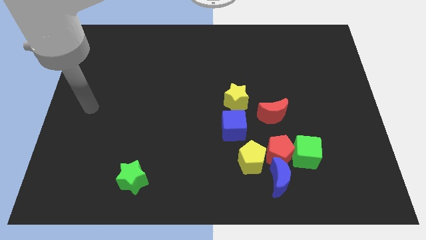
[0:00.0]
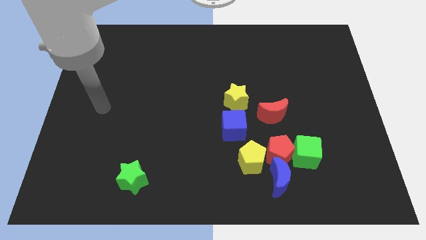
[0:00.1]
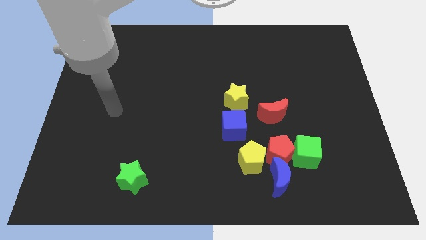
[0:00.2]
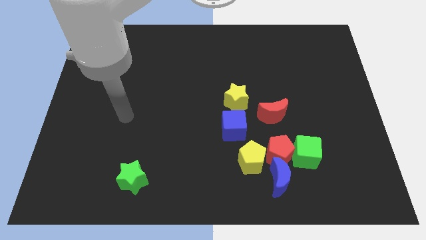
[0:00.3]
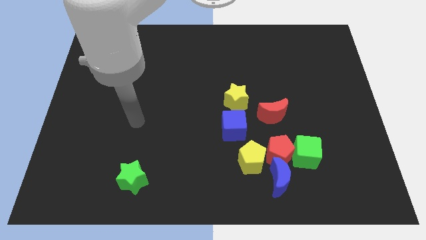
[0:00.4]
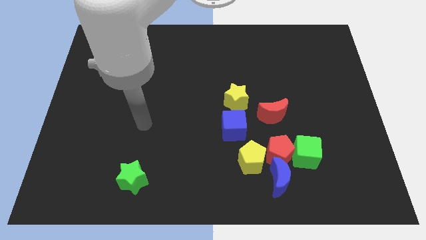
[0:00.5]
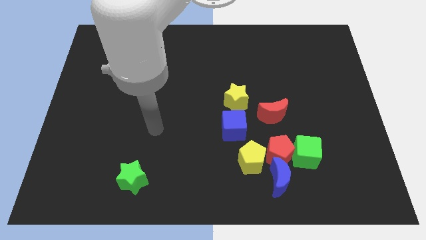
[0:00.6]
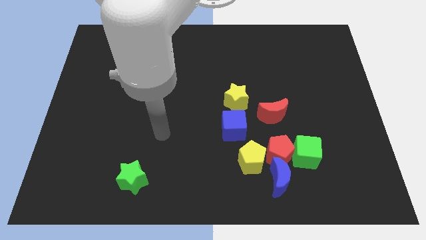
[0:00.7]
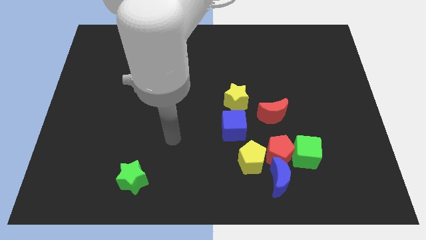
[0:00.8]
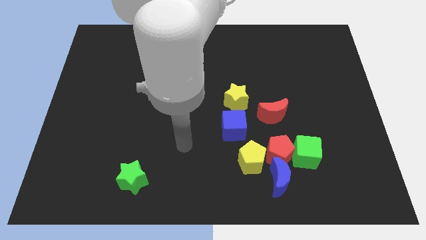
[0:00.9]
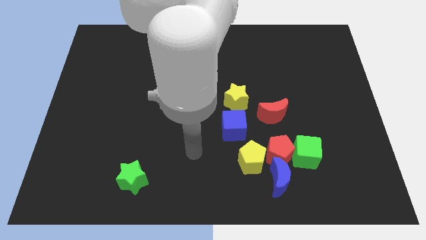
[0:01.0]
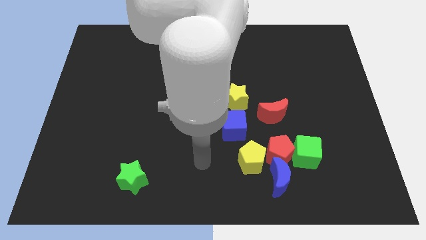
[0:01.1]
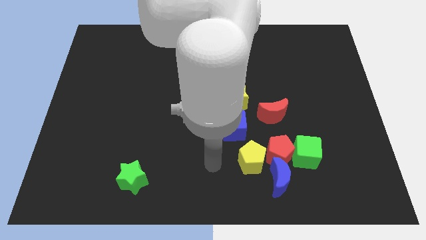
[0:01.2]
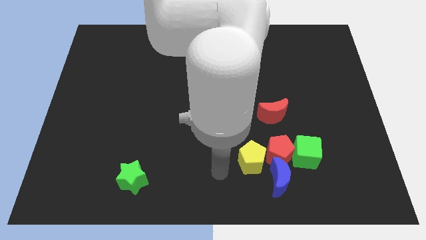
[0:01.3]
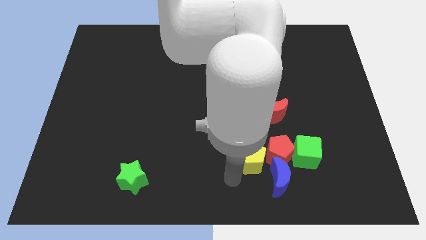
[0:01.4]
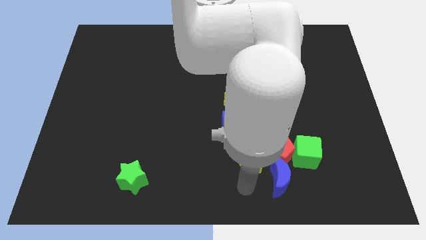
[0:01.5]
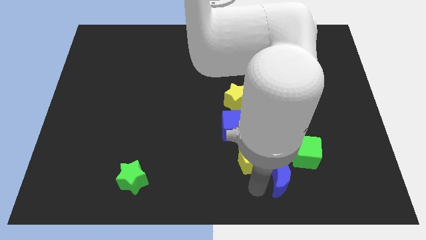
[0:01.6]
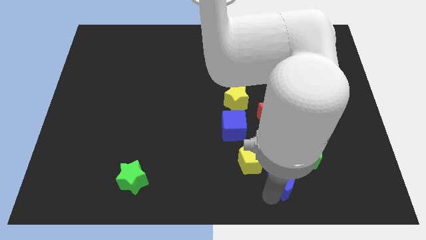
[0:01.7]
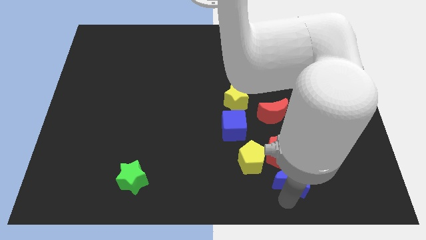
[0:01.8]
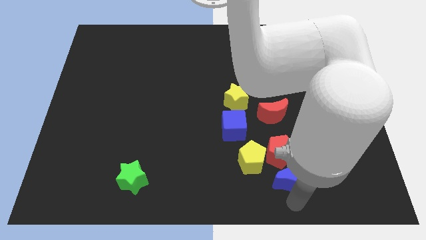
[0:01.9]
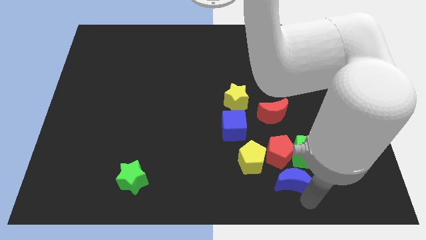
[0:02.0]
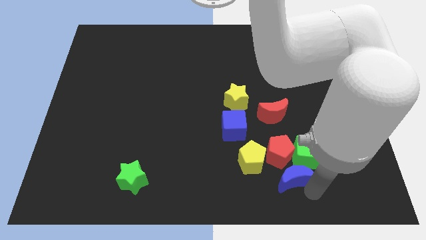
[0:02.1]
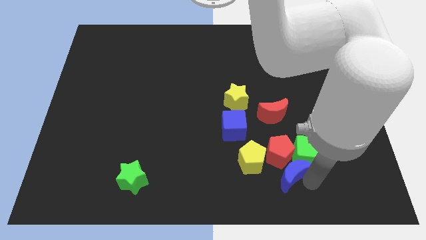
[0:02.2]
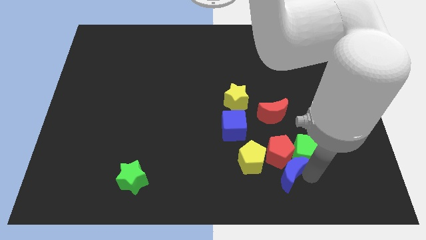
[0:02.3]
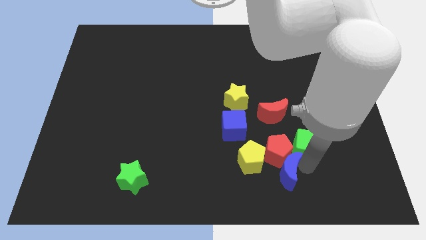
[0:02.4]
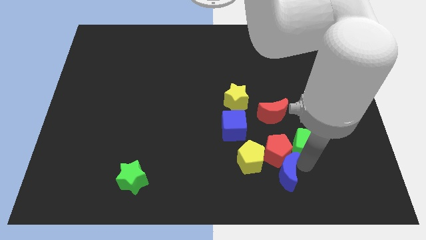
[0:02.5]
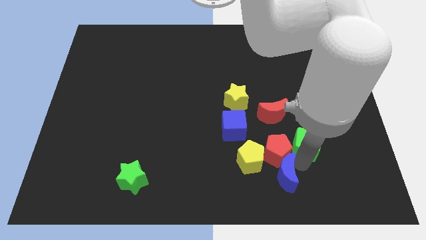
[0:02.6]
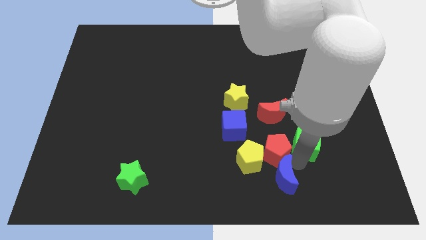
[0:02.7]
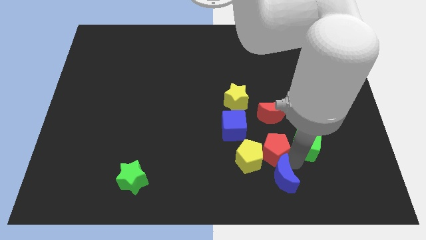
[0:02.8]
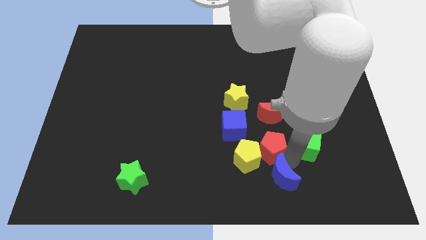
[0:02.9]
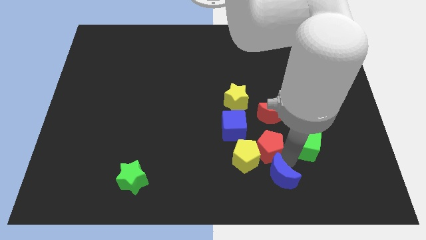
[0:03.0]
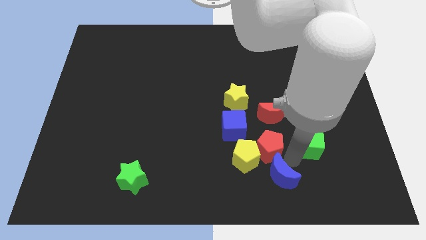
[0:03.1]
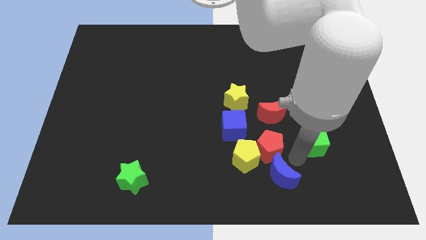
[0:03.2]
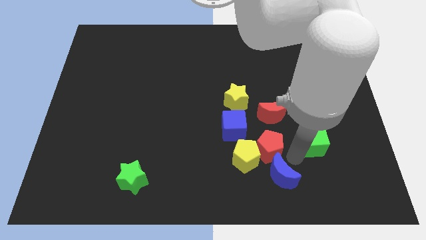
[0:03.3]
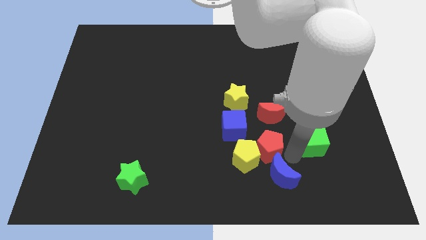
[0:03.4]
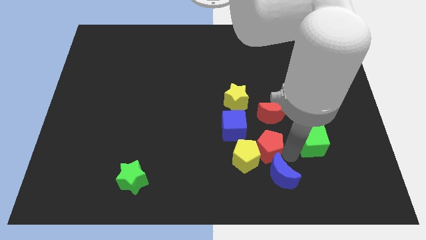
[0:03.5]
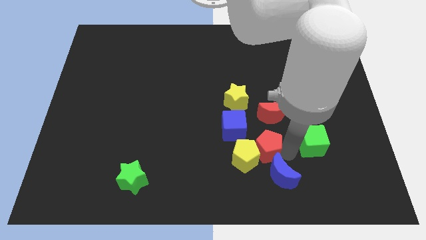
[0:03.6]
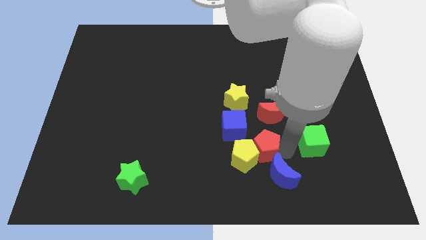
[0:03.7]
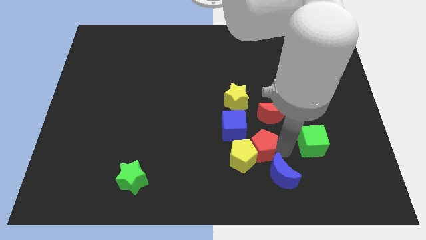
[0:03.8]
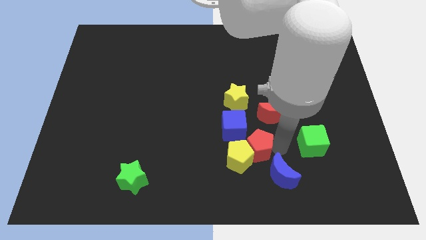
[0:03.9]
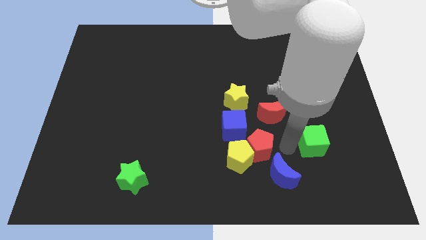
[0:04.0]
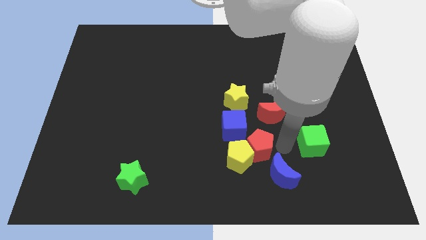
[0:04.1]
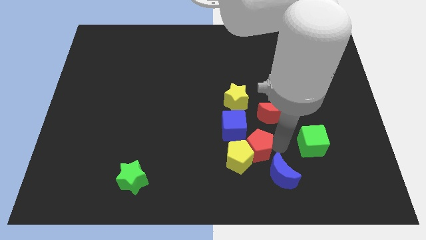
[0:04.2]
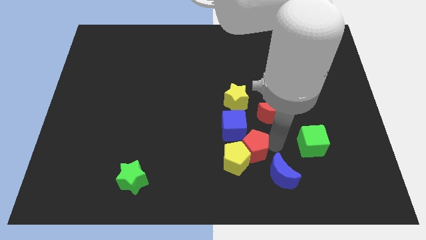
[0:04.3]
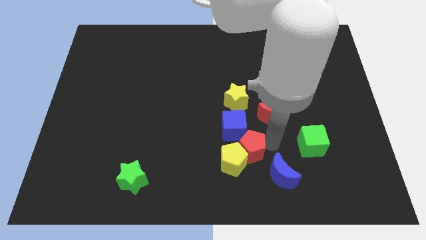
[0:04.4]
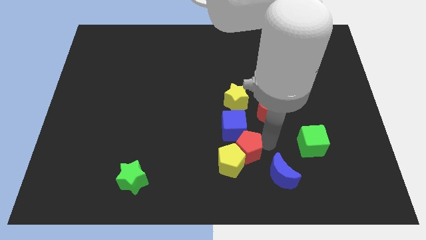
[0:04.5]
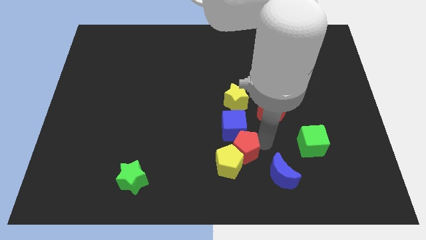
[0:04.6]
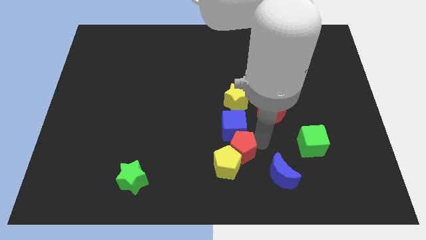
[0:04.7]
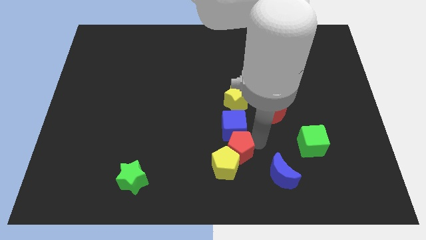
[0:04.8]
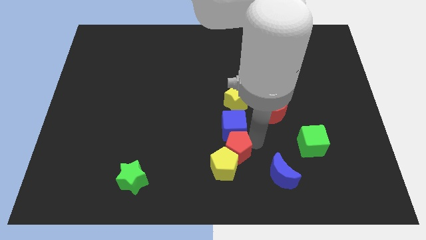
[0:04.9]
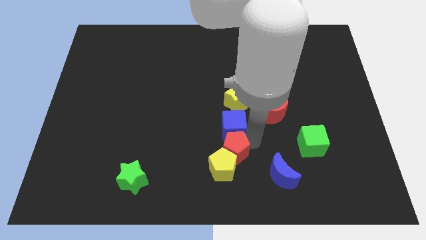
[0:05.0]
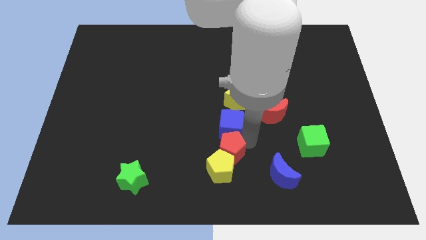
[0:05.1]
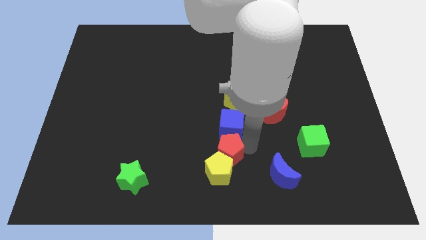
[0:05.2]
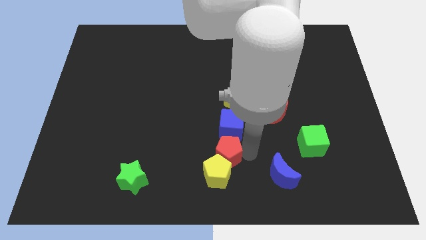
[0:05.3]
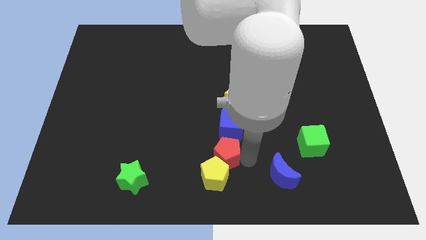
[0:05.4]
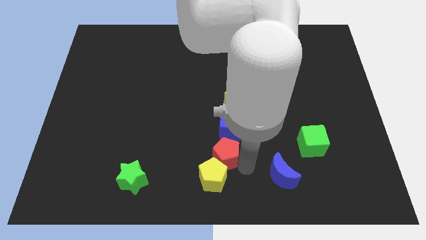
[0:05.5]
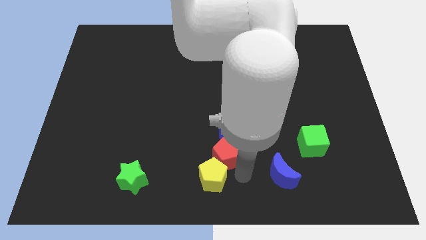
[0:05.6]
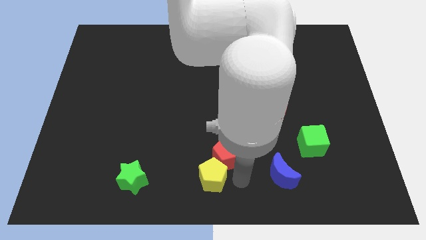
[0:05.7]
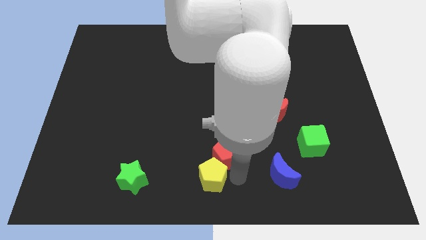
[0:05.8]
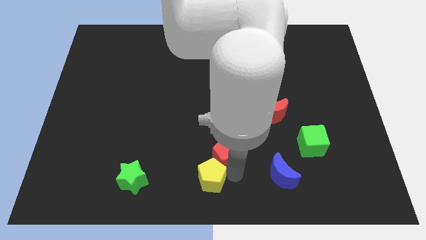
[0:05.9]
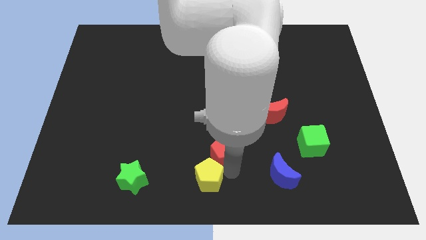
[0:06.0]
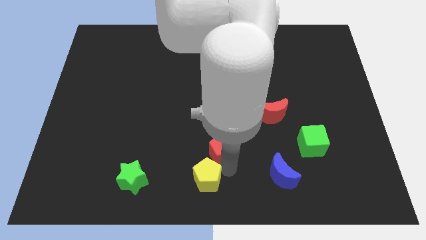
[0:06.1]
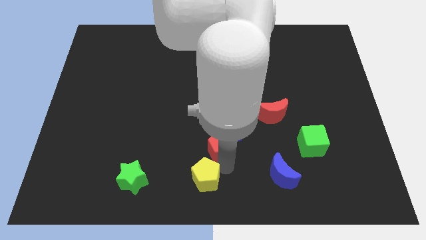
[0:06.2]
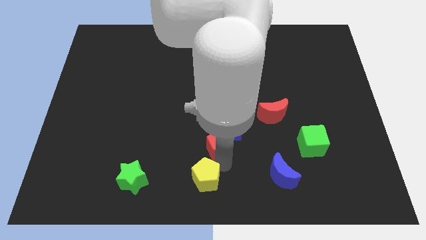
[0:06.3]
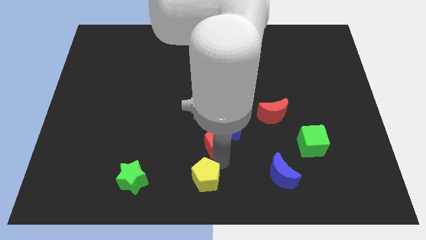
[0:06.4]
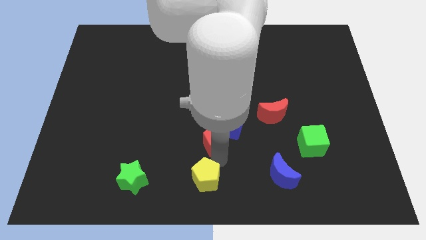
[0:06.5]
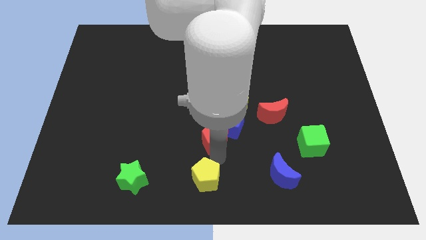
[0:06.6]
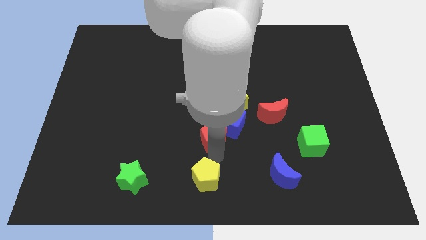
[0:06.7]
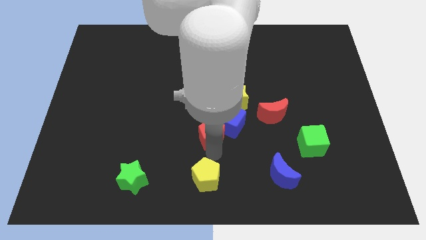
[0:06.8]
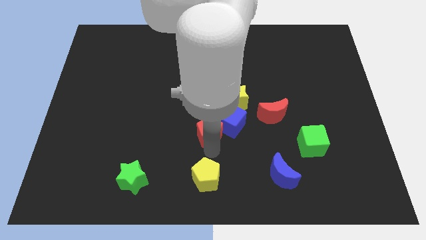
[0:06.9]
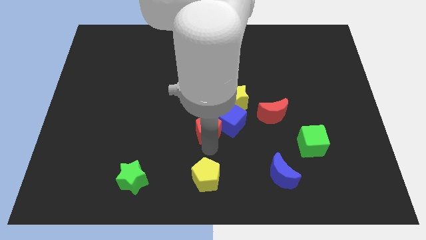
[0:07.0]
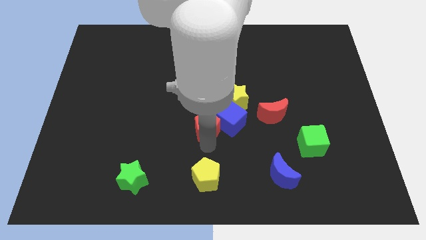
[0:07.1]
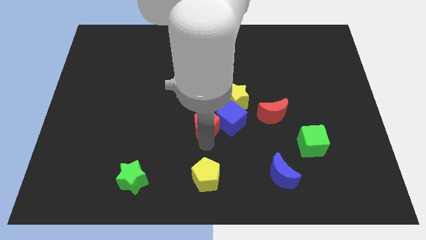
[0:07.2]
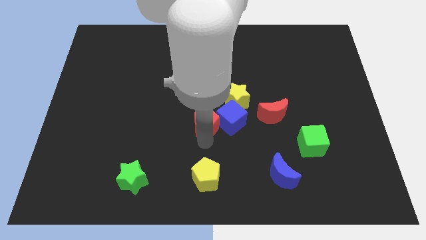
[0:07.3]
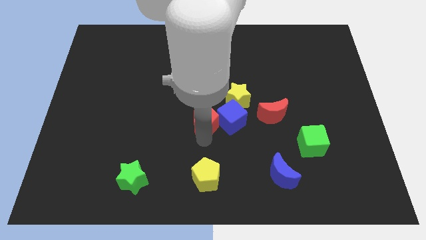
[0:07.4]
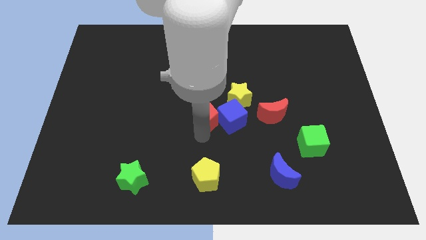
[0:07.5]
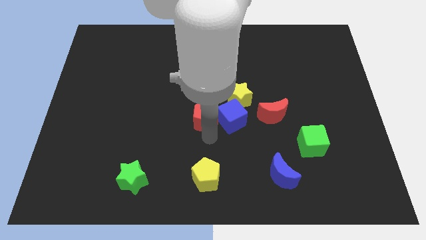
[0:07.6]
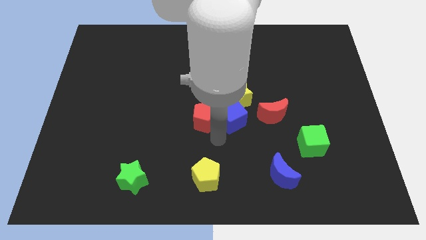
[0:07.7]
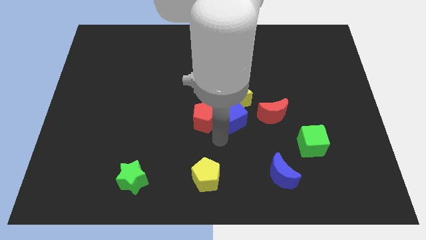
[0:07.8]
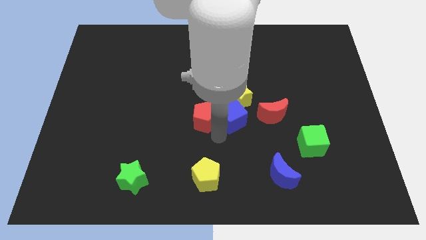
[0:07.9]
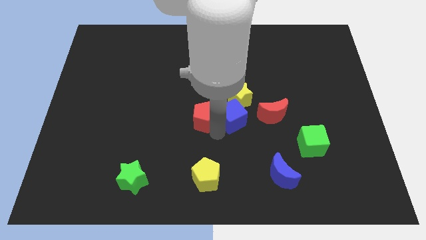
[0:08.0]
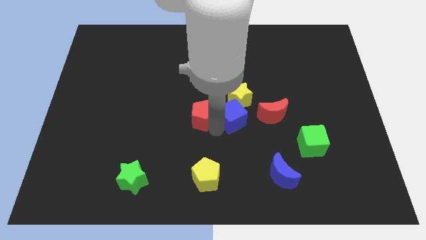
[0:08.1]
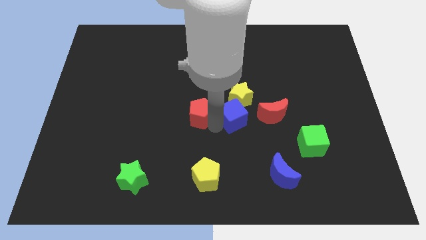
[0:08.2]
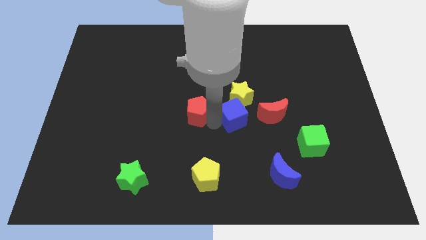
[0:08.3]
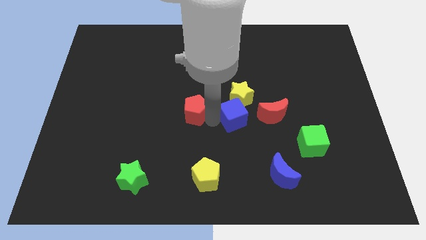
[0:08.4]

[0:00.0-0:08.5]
slide the red pentagon up and left
